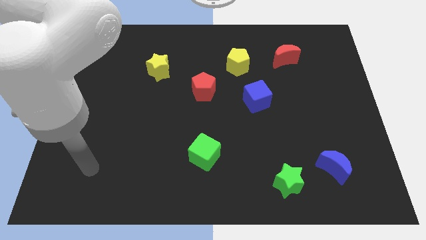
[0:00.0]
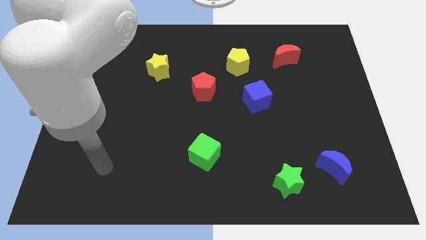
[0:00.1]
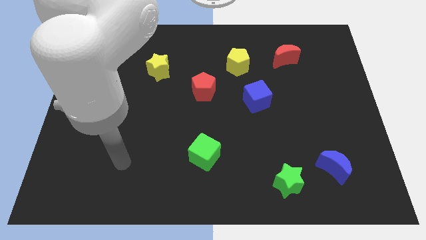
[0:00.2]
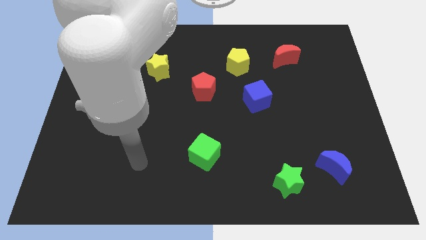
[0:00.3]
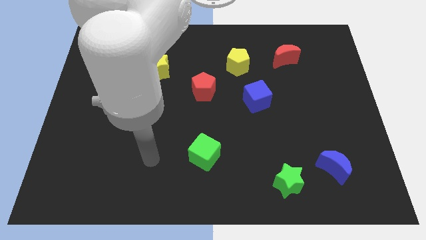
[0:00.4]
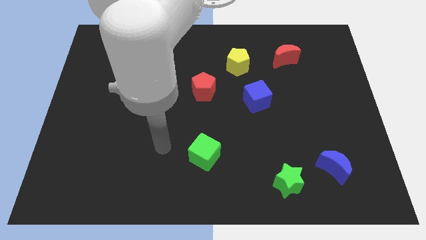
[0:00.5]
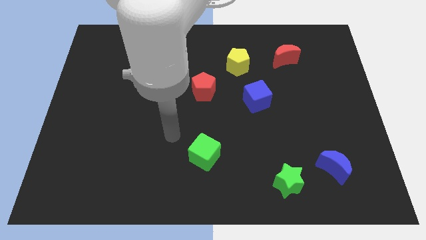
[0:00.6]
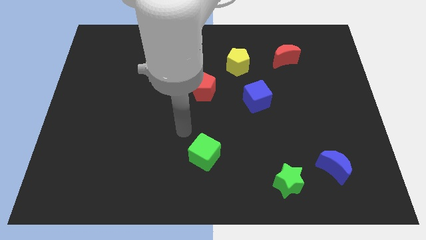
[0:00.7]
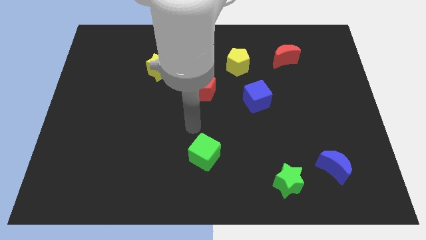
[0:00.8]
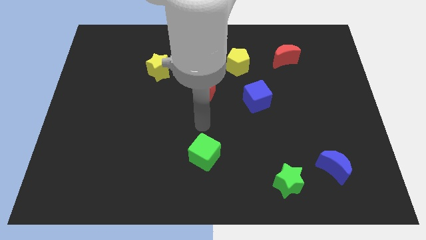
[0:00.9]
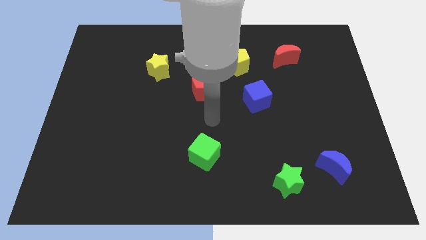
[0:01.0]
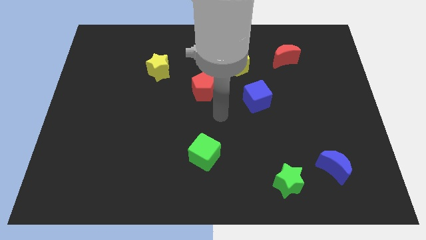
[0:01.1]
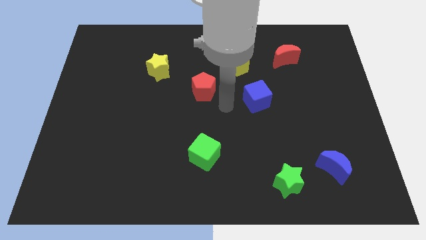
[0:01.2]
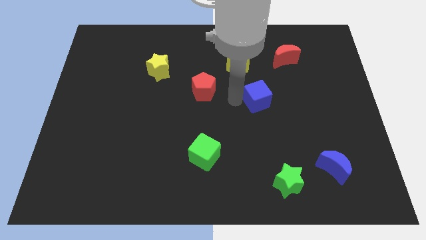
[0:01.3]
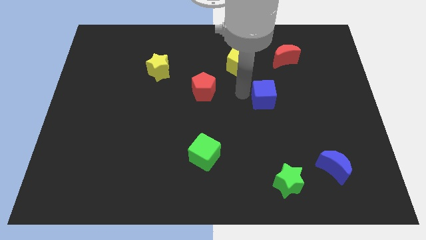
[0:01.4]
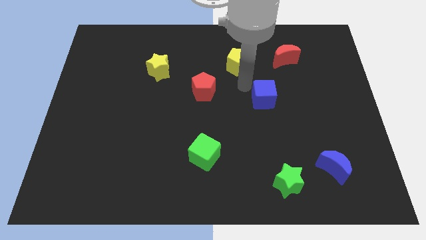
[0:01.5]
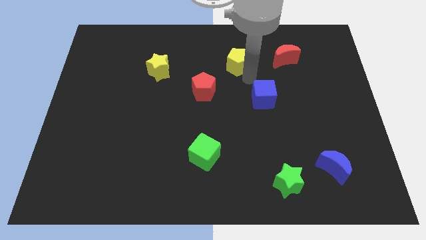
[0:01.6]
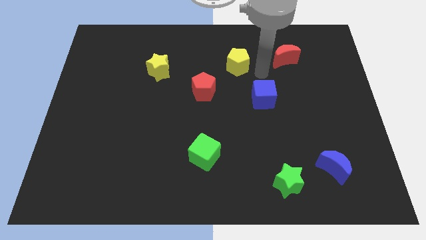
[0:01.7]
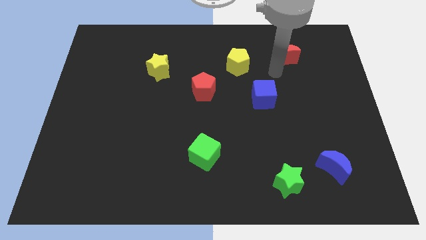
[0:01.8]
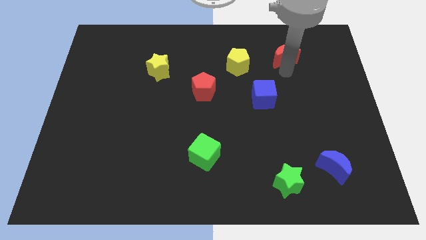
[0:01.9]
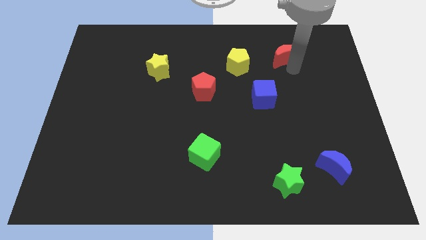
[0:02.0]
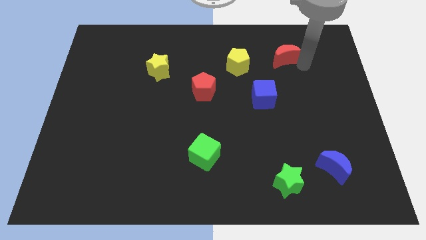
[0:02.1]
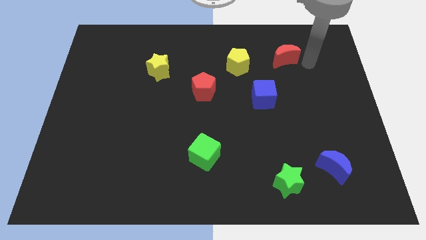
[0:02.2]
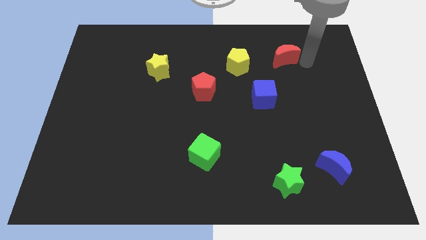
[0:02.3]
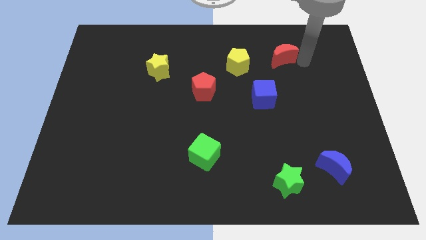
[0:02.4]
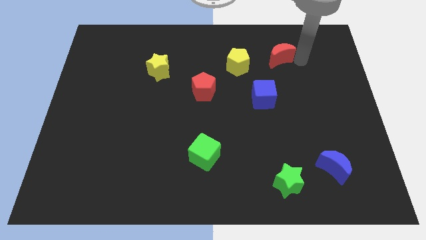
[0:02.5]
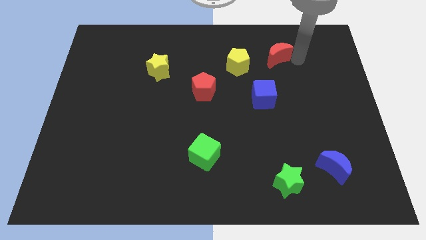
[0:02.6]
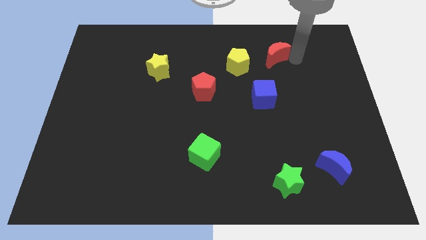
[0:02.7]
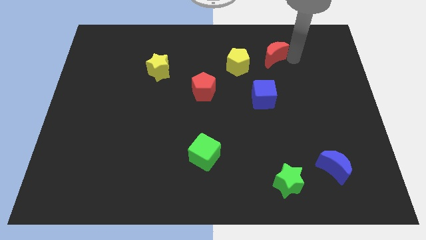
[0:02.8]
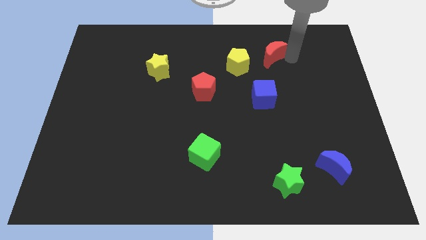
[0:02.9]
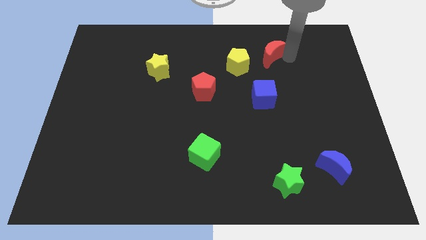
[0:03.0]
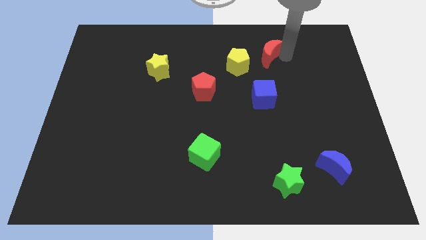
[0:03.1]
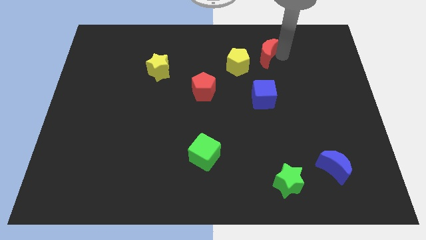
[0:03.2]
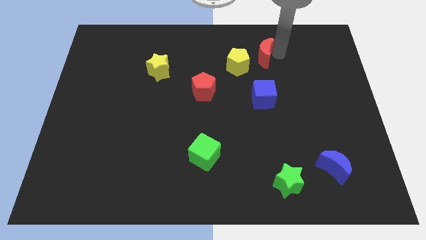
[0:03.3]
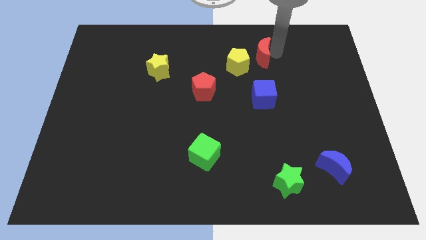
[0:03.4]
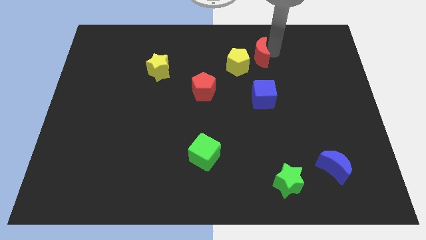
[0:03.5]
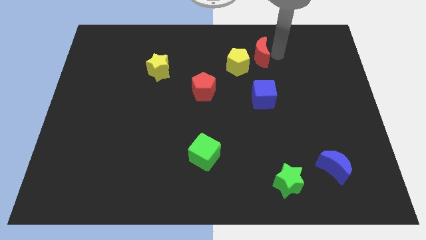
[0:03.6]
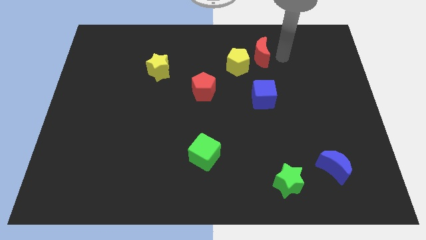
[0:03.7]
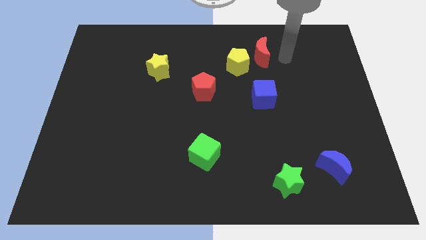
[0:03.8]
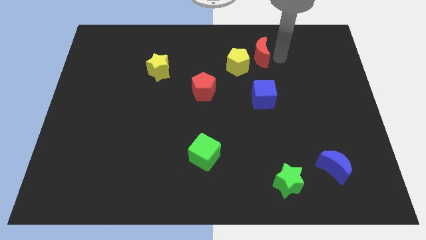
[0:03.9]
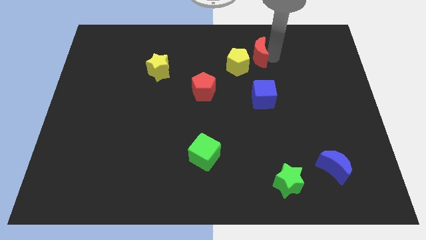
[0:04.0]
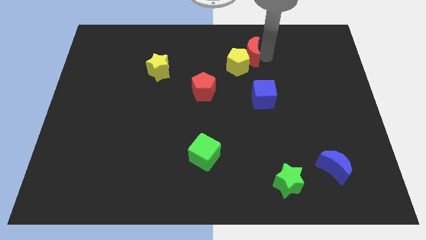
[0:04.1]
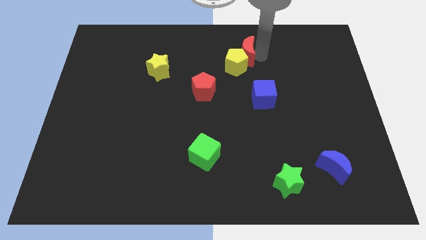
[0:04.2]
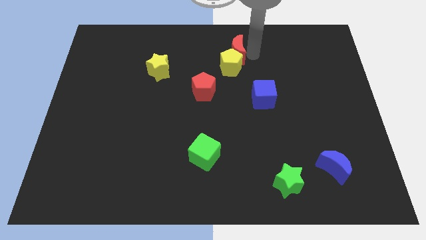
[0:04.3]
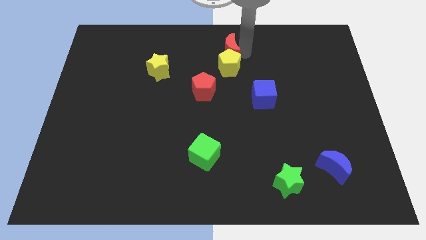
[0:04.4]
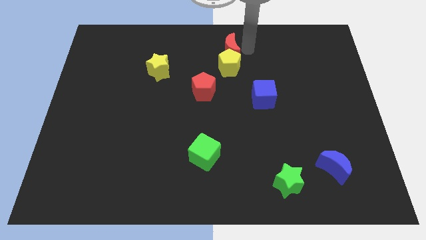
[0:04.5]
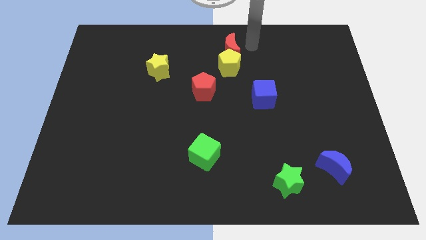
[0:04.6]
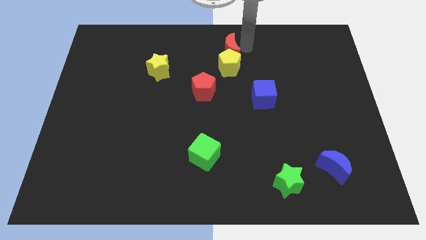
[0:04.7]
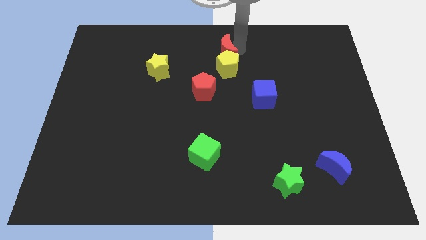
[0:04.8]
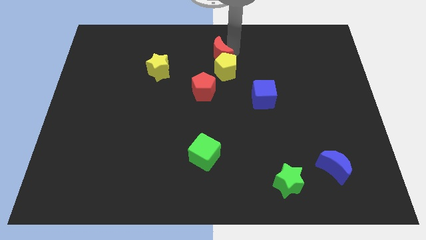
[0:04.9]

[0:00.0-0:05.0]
move the red moon to the top side of the red pentagon

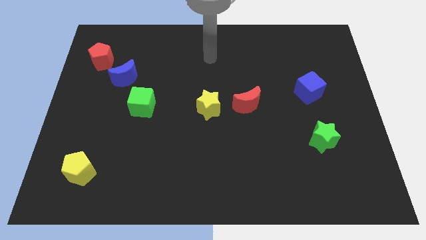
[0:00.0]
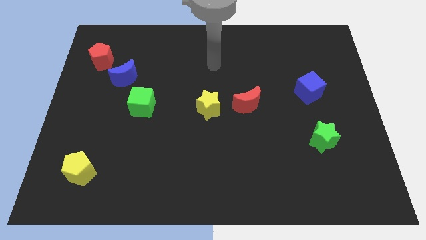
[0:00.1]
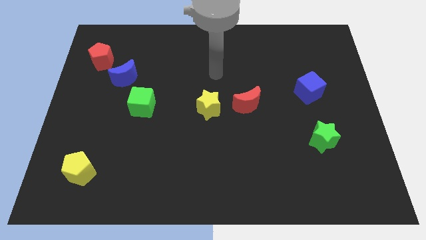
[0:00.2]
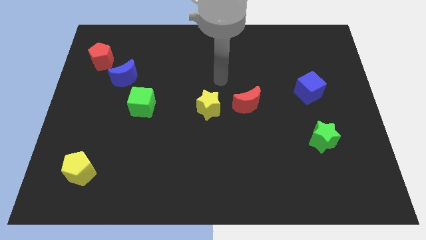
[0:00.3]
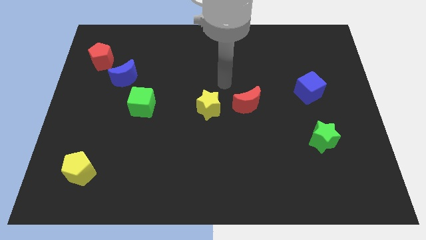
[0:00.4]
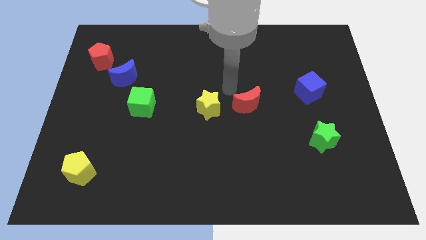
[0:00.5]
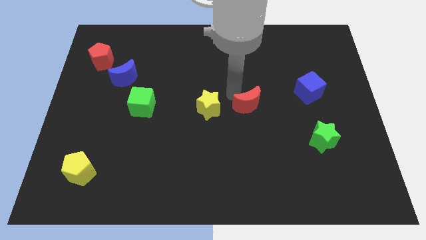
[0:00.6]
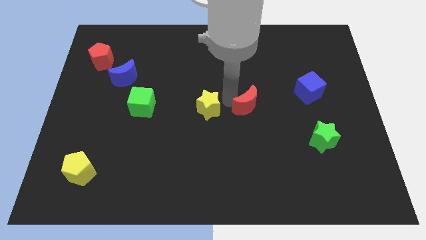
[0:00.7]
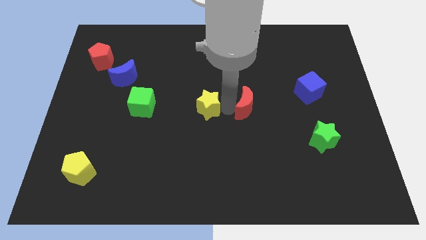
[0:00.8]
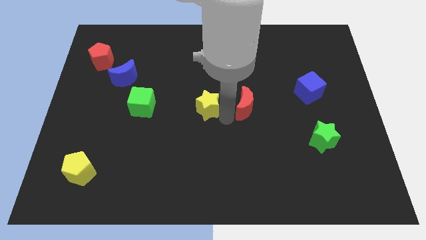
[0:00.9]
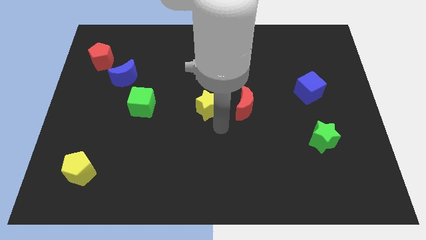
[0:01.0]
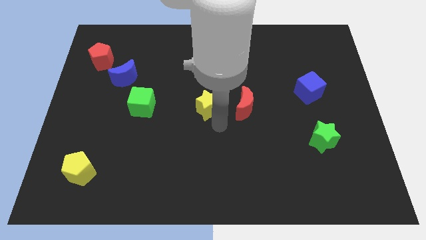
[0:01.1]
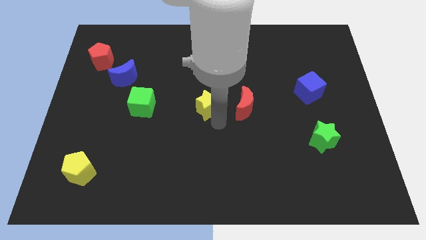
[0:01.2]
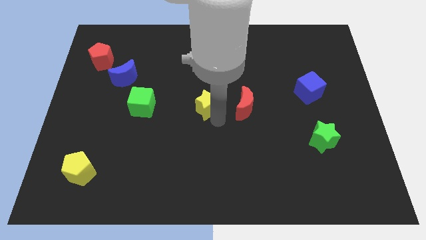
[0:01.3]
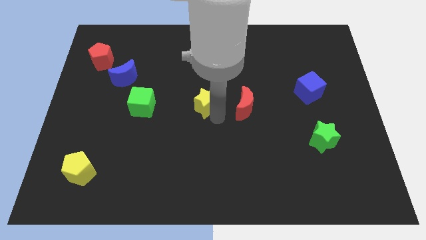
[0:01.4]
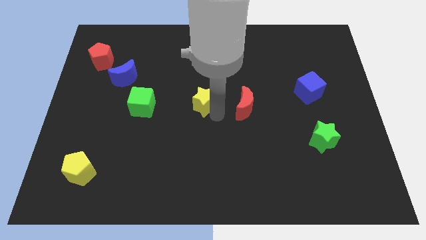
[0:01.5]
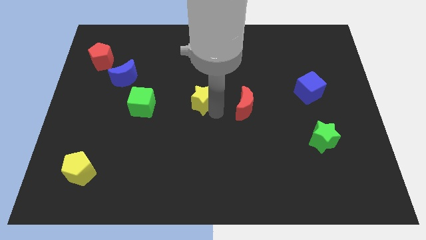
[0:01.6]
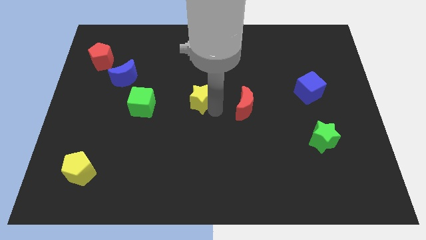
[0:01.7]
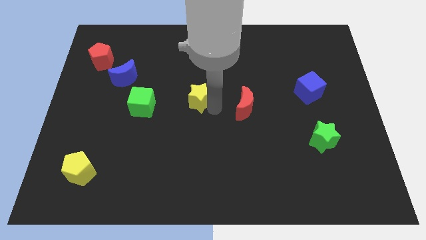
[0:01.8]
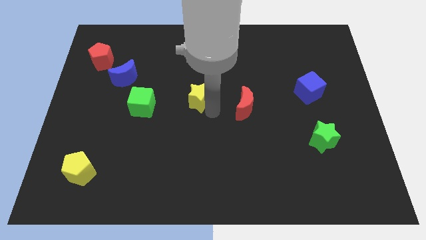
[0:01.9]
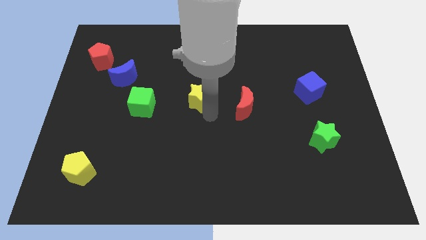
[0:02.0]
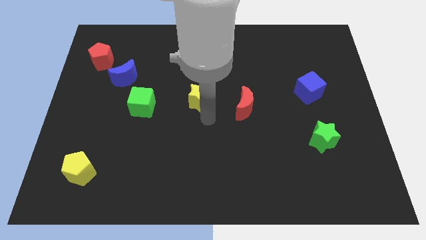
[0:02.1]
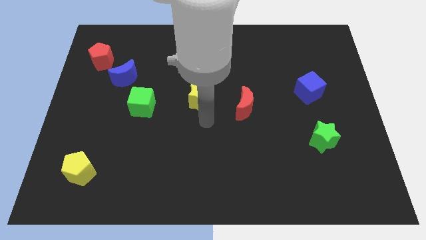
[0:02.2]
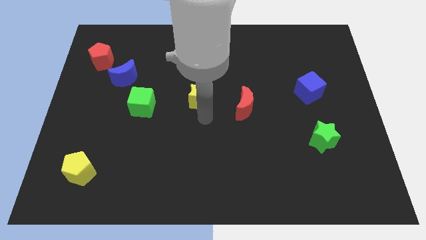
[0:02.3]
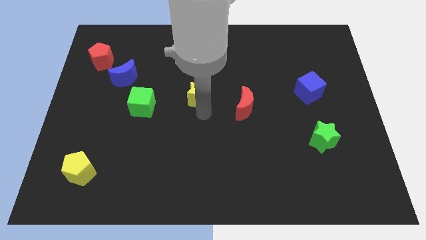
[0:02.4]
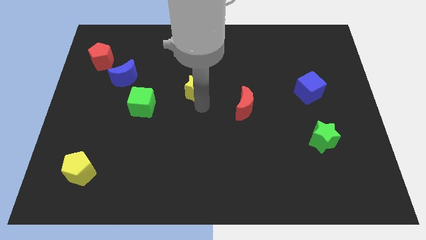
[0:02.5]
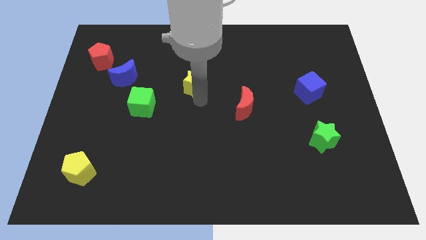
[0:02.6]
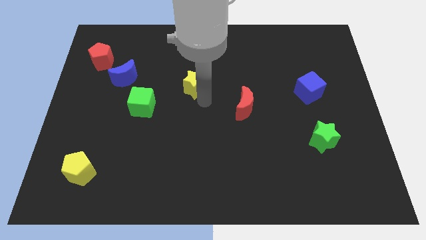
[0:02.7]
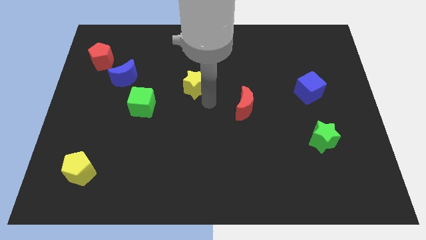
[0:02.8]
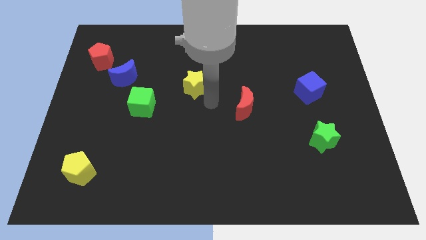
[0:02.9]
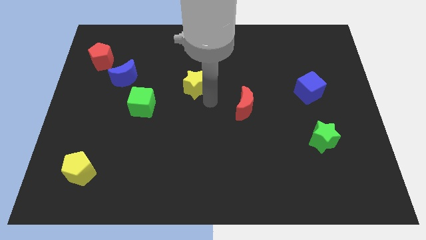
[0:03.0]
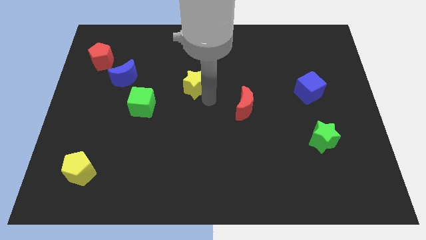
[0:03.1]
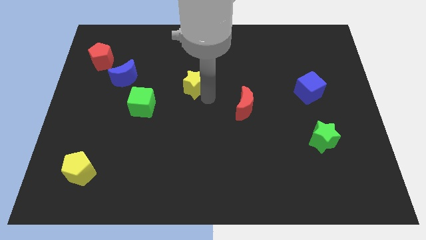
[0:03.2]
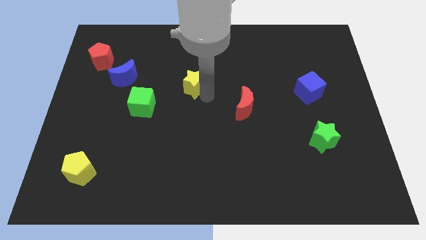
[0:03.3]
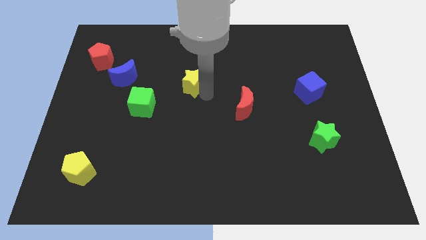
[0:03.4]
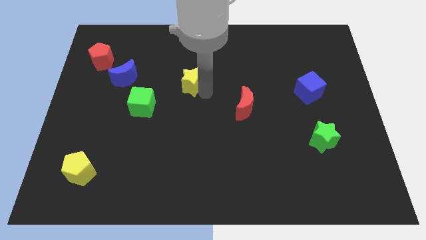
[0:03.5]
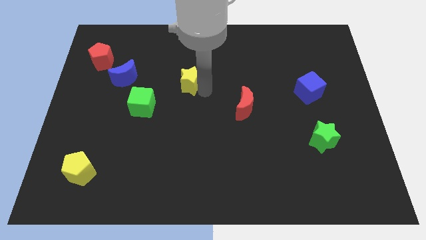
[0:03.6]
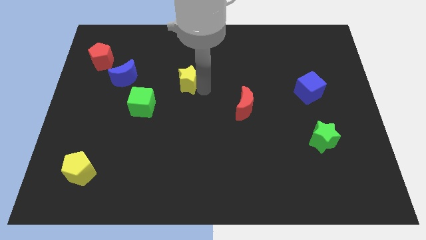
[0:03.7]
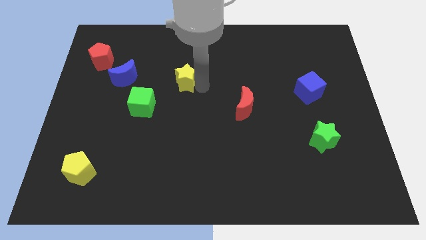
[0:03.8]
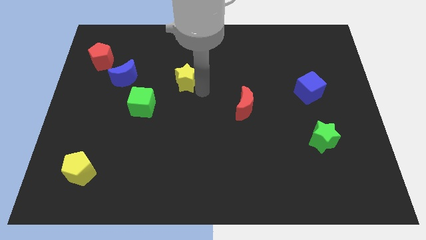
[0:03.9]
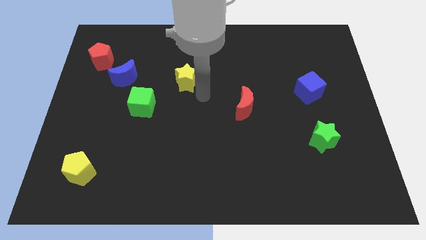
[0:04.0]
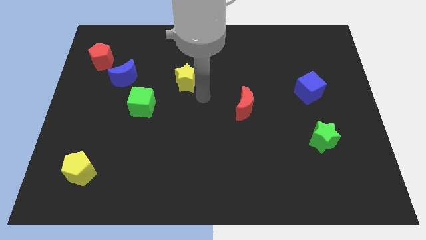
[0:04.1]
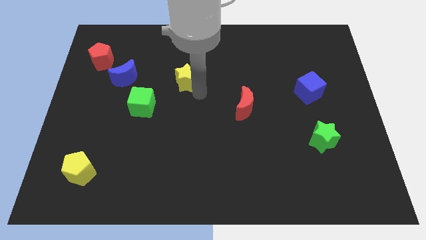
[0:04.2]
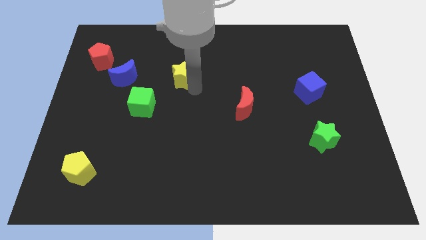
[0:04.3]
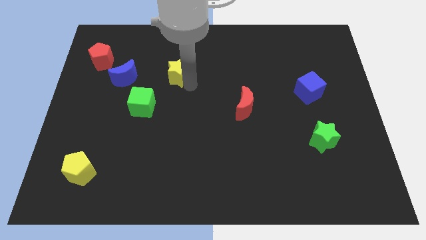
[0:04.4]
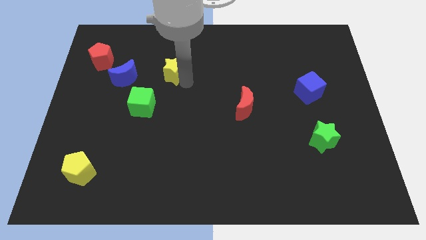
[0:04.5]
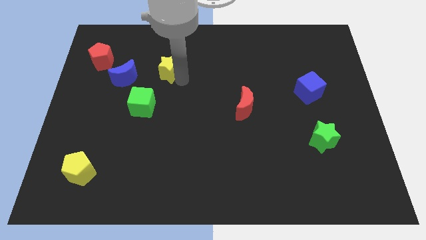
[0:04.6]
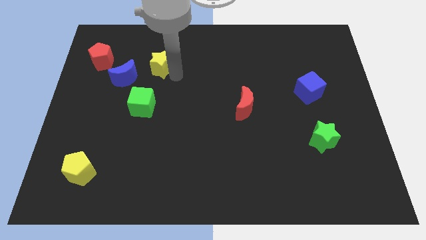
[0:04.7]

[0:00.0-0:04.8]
put the yellow star to the right of the red pentagon
